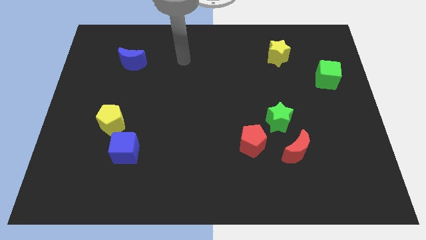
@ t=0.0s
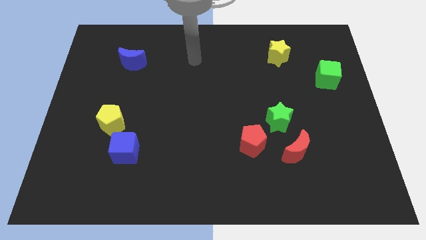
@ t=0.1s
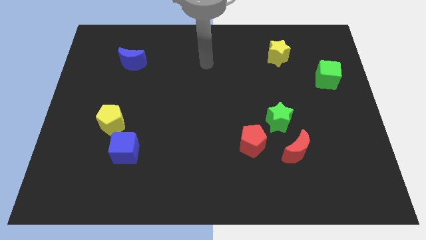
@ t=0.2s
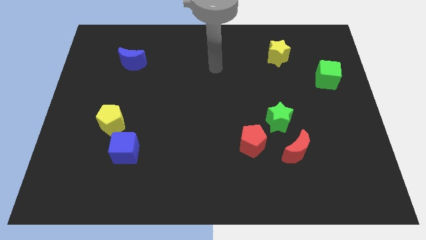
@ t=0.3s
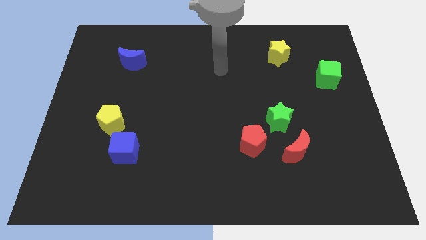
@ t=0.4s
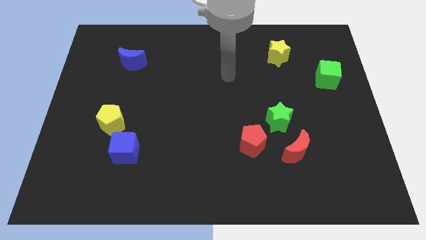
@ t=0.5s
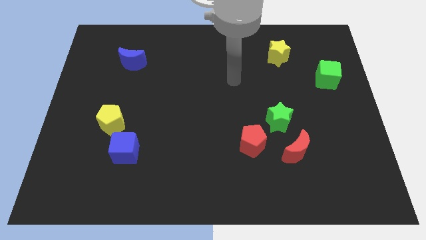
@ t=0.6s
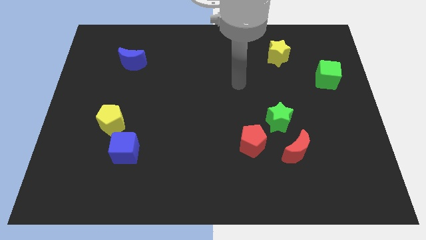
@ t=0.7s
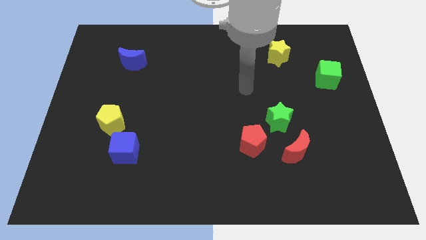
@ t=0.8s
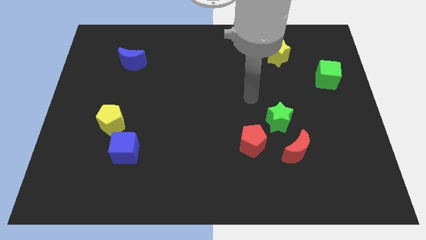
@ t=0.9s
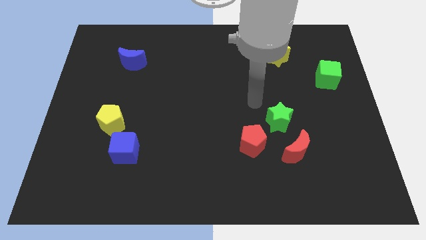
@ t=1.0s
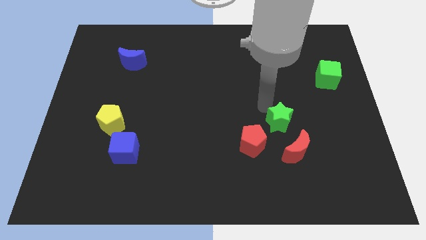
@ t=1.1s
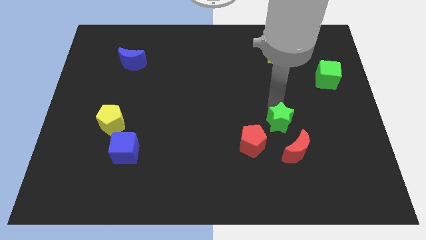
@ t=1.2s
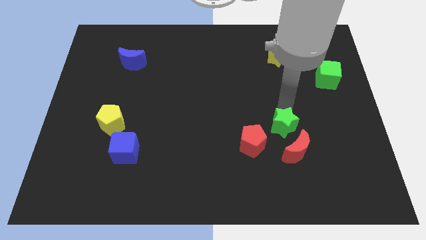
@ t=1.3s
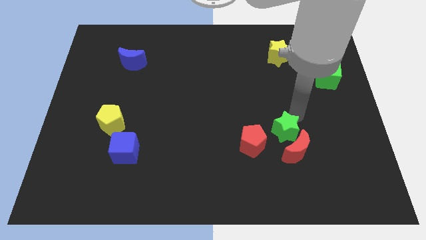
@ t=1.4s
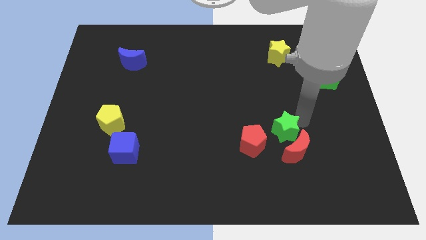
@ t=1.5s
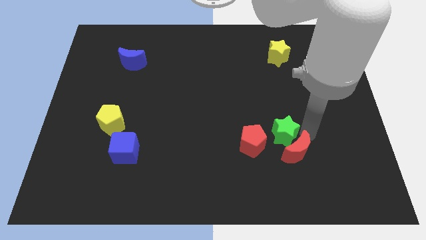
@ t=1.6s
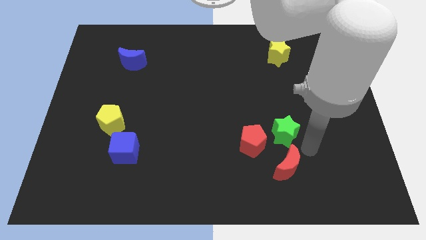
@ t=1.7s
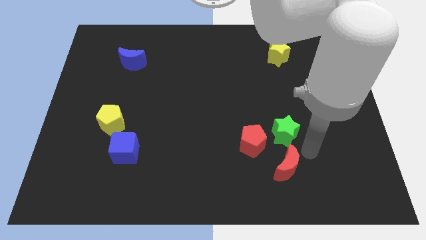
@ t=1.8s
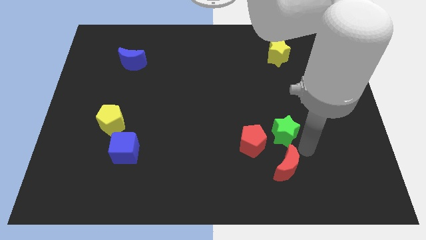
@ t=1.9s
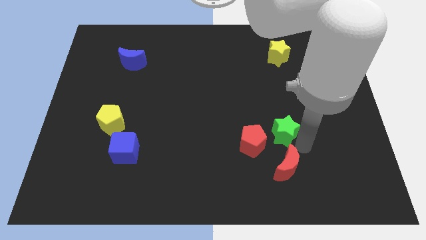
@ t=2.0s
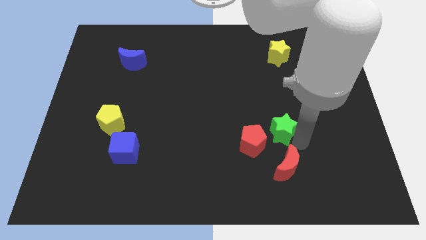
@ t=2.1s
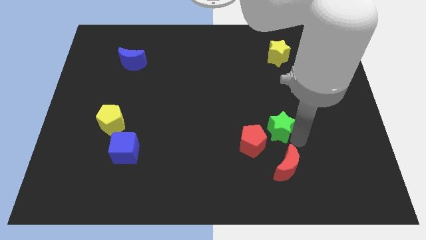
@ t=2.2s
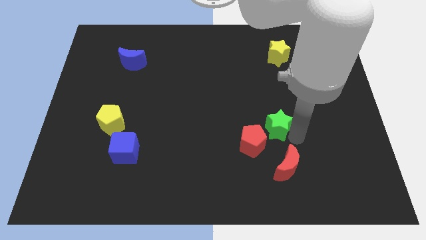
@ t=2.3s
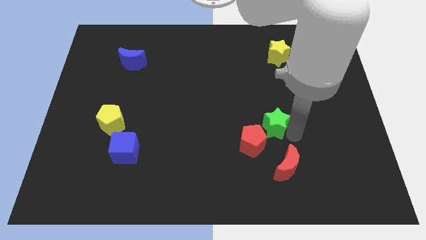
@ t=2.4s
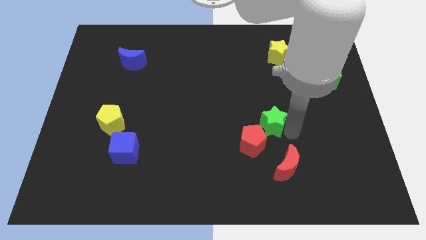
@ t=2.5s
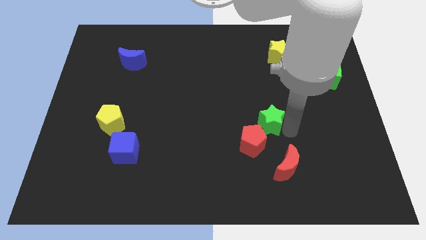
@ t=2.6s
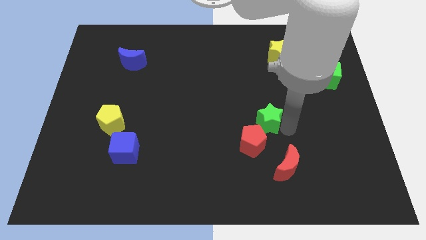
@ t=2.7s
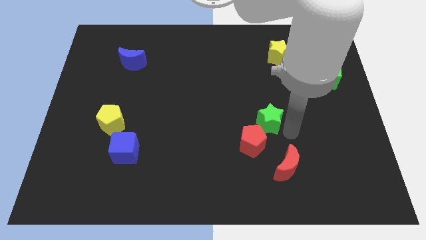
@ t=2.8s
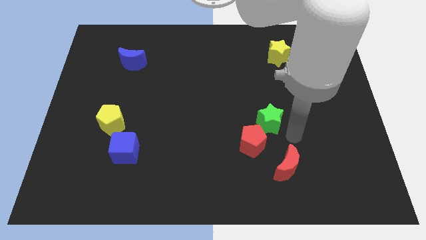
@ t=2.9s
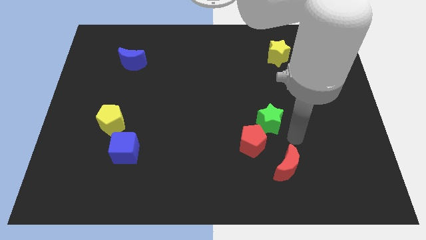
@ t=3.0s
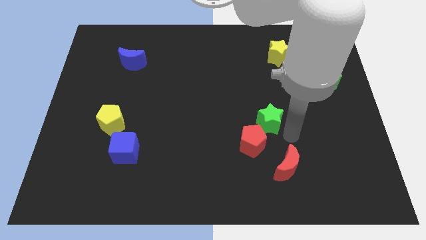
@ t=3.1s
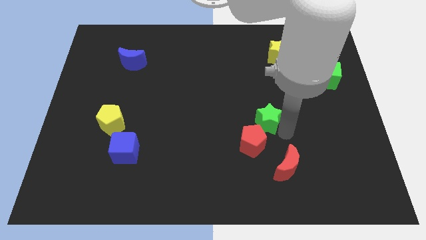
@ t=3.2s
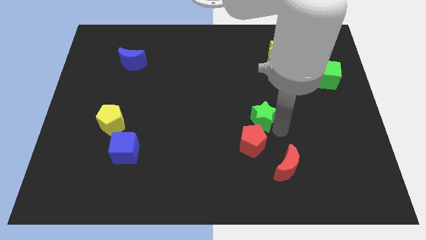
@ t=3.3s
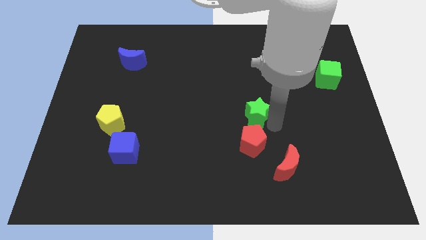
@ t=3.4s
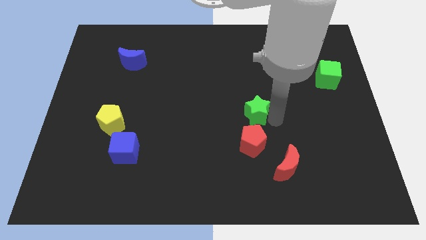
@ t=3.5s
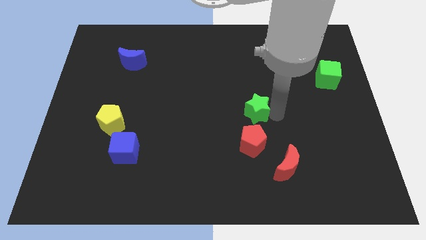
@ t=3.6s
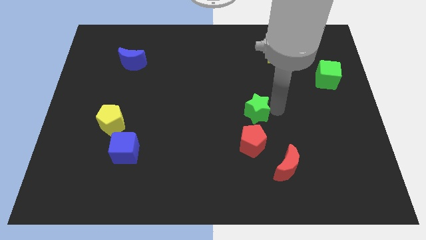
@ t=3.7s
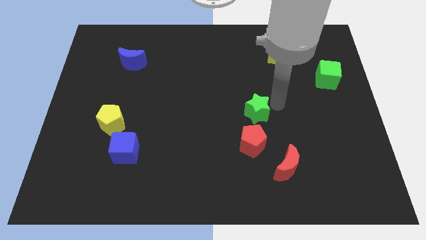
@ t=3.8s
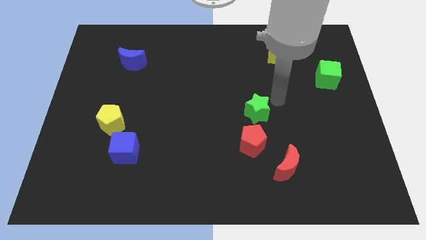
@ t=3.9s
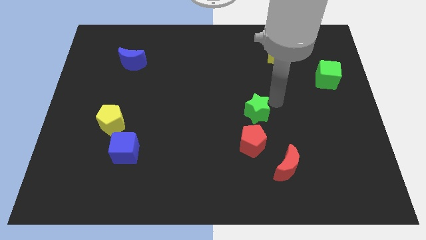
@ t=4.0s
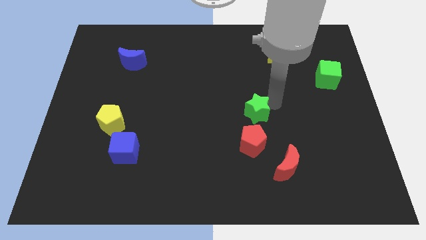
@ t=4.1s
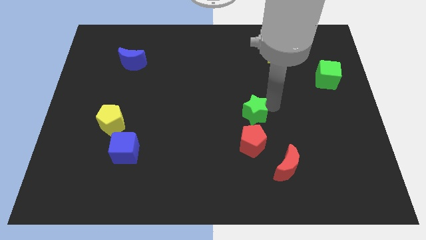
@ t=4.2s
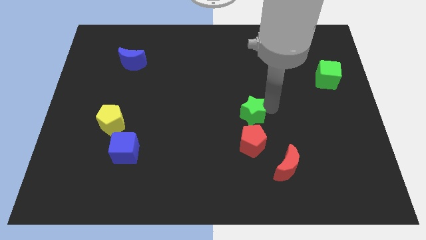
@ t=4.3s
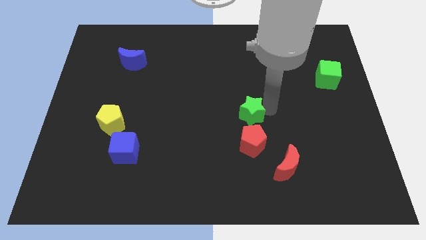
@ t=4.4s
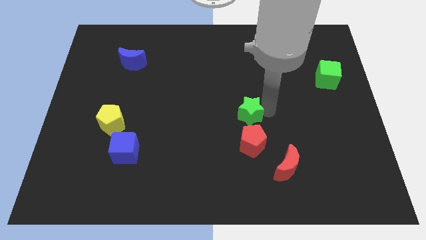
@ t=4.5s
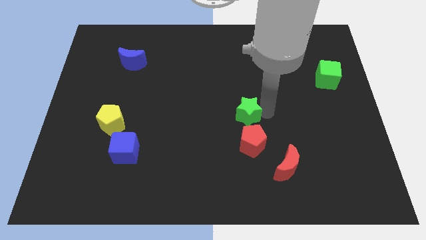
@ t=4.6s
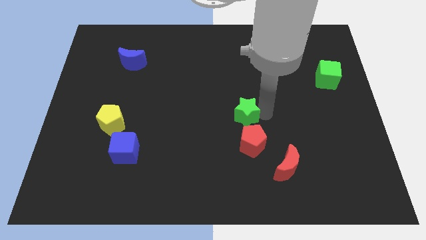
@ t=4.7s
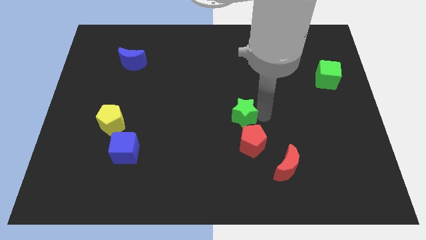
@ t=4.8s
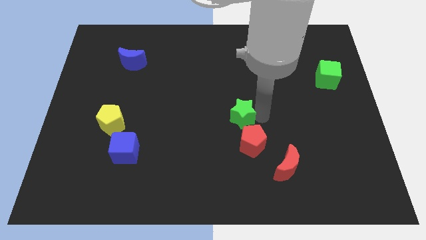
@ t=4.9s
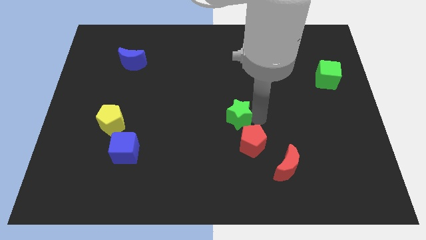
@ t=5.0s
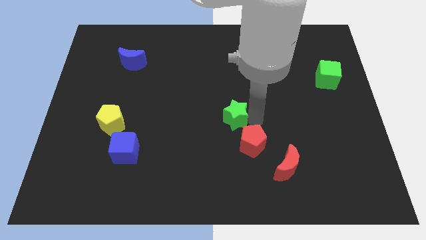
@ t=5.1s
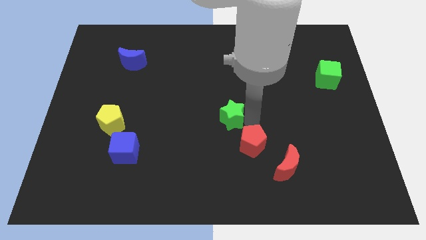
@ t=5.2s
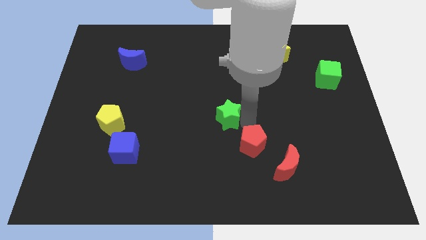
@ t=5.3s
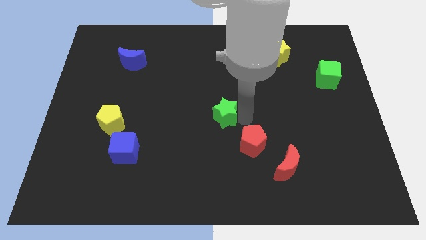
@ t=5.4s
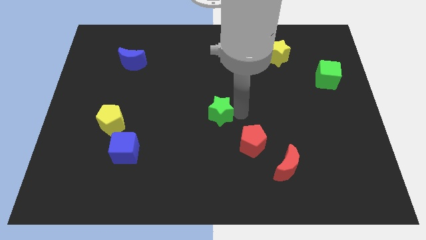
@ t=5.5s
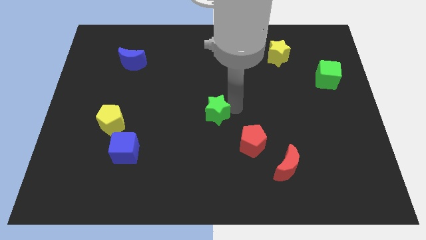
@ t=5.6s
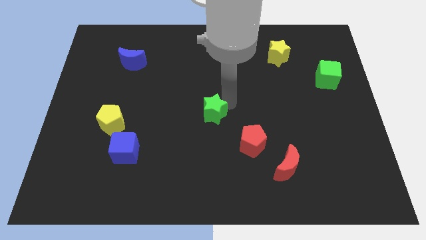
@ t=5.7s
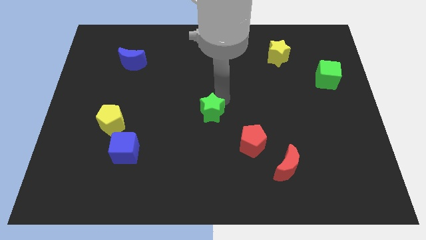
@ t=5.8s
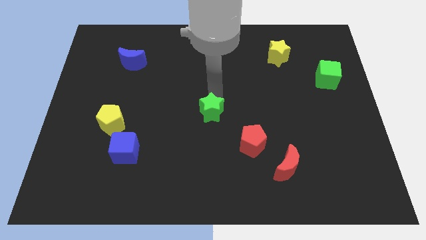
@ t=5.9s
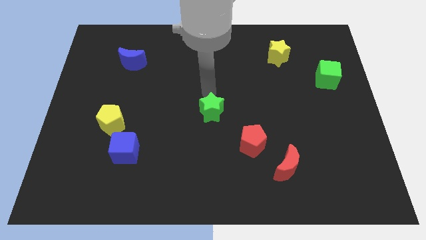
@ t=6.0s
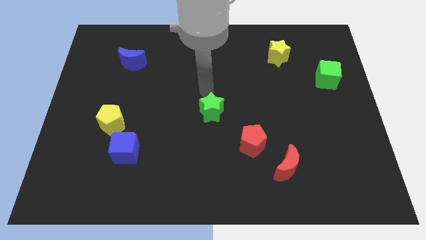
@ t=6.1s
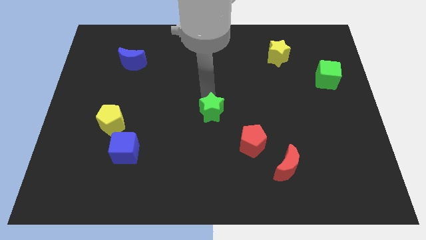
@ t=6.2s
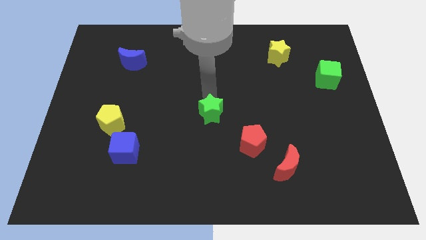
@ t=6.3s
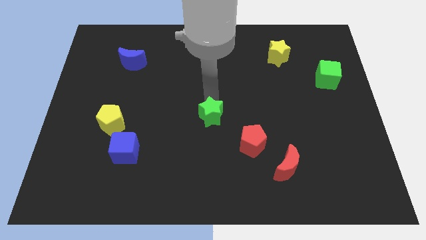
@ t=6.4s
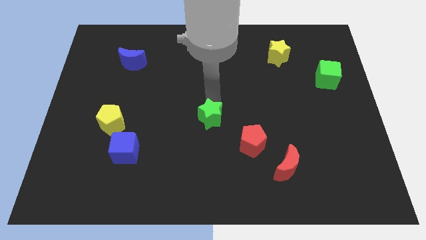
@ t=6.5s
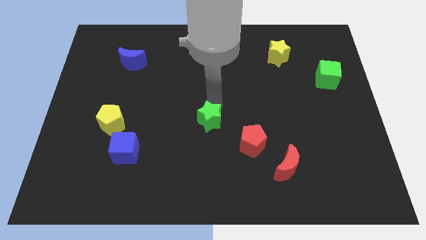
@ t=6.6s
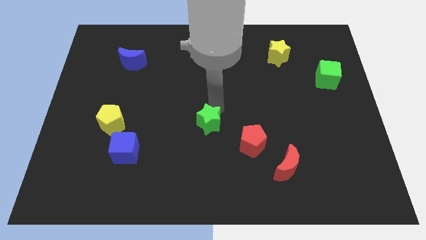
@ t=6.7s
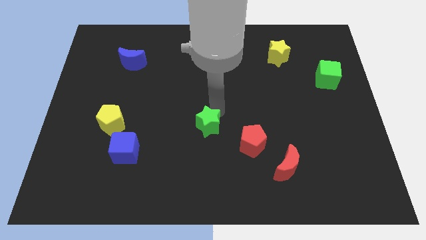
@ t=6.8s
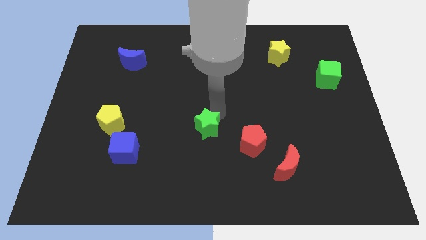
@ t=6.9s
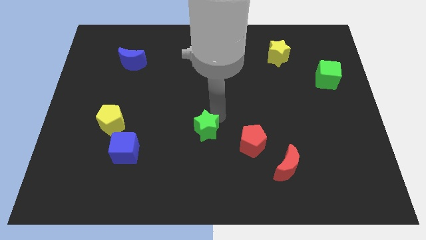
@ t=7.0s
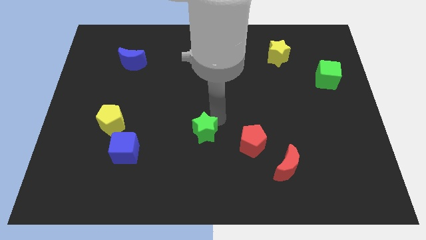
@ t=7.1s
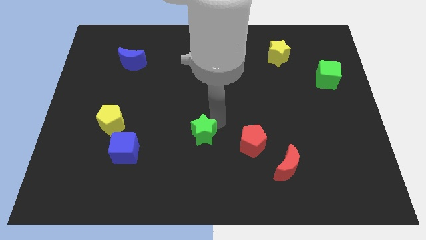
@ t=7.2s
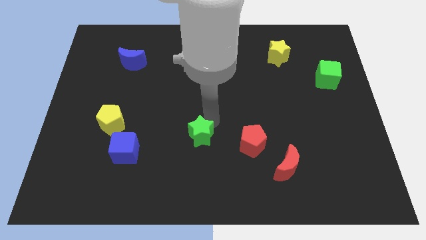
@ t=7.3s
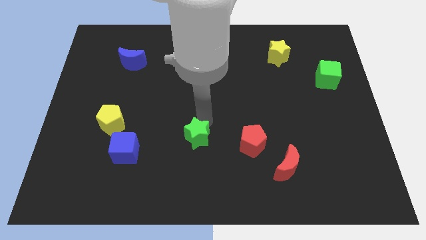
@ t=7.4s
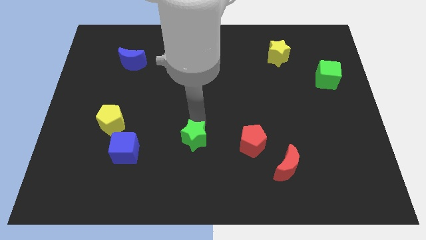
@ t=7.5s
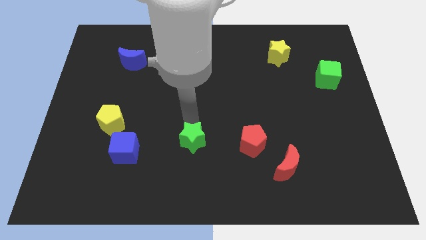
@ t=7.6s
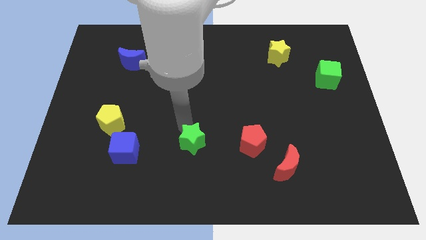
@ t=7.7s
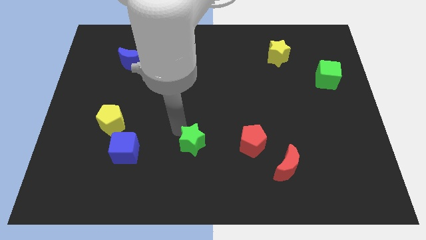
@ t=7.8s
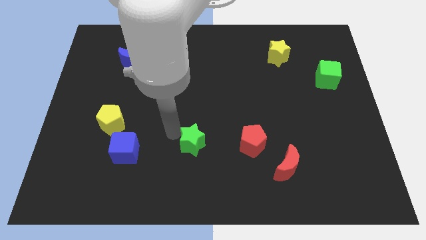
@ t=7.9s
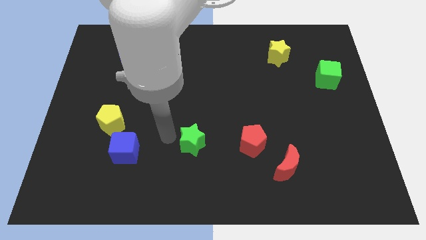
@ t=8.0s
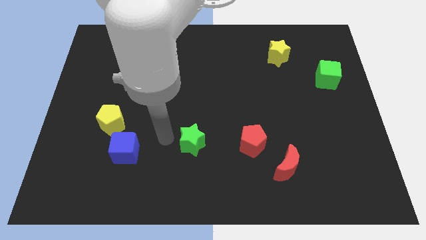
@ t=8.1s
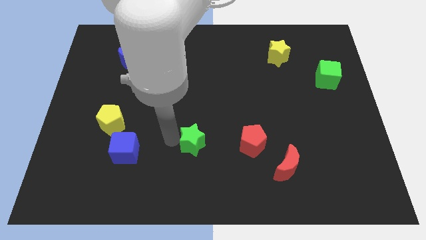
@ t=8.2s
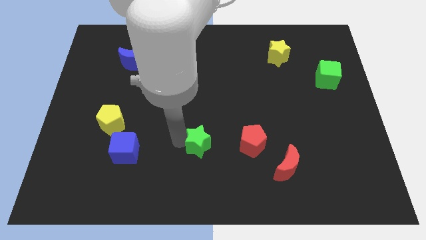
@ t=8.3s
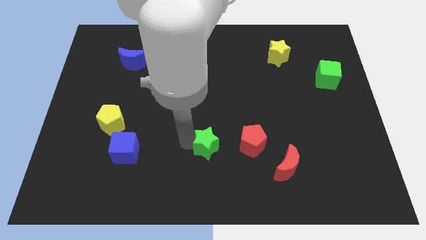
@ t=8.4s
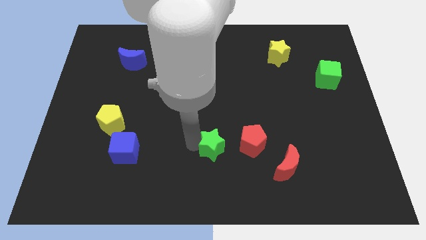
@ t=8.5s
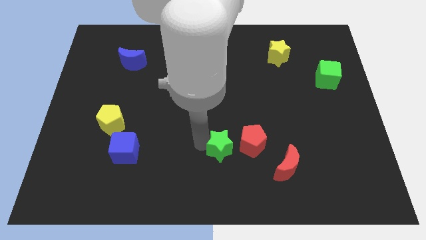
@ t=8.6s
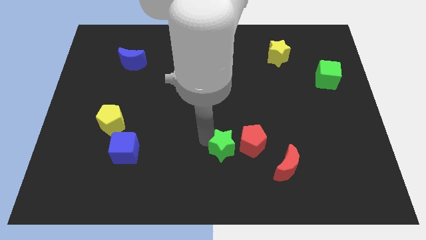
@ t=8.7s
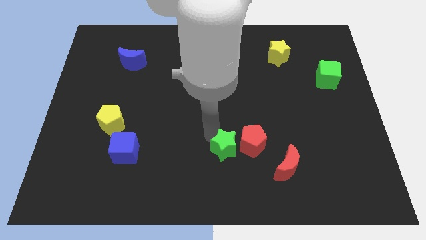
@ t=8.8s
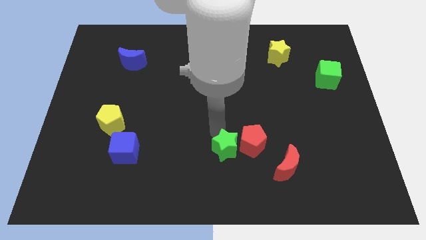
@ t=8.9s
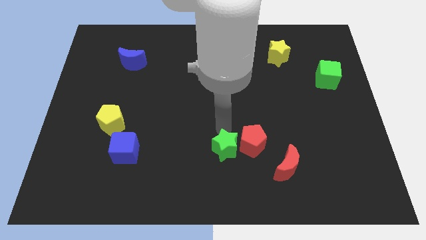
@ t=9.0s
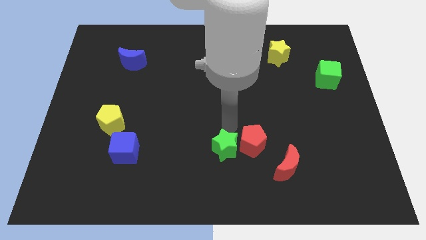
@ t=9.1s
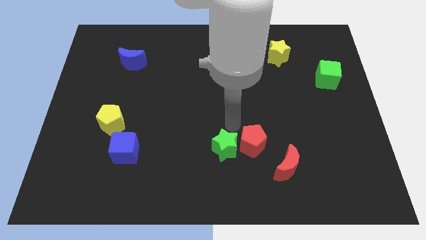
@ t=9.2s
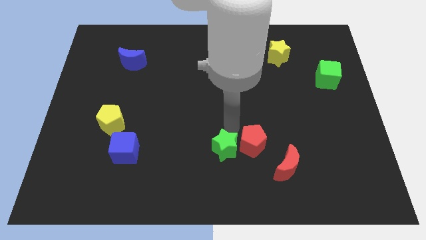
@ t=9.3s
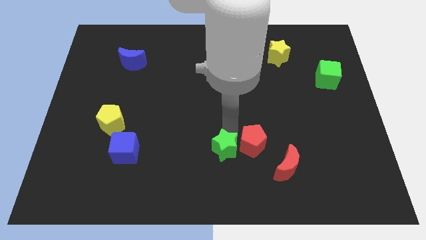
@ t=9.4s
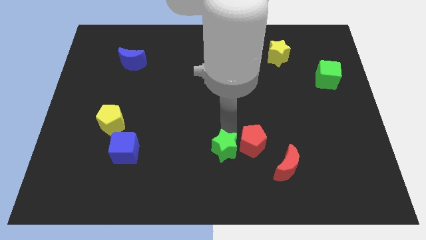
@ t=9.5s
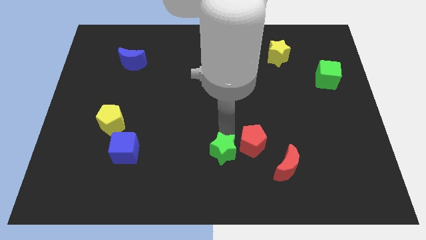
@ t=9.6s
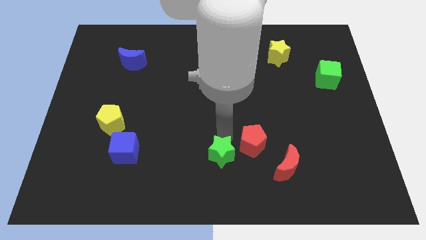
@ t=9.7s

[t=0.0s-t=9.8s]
slide the green star to the bottom
